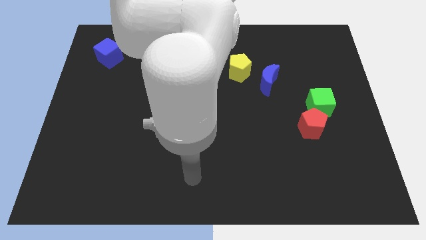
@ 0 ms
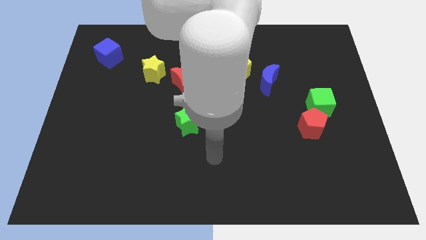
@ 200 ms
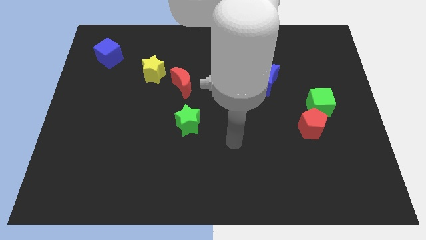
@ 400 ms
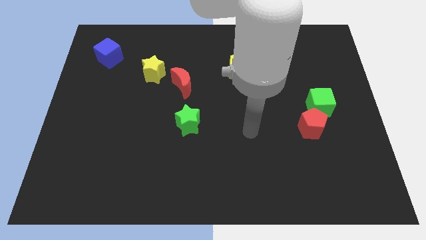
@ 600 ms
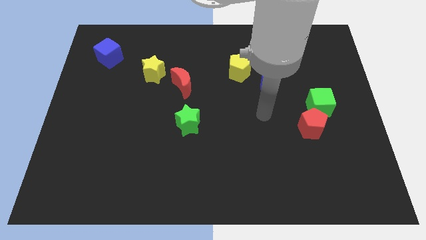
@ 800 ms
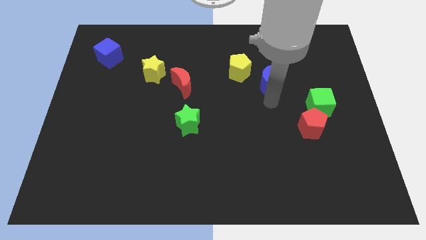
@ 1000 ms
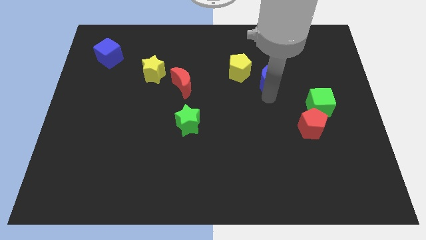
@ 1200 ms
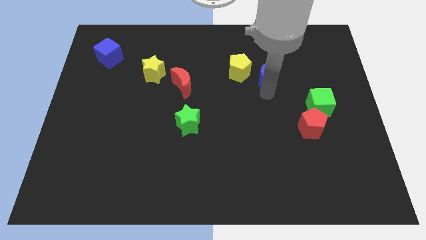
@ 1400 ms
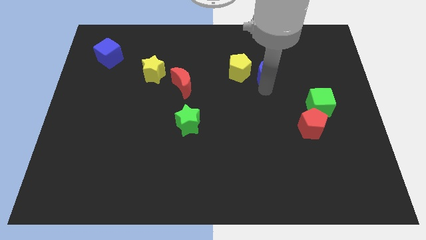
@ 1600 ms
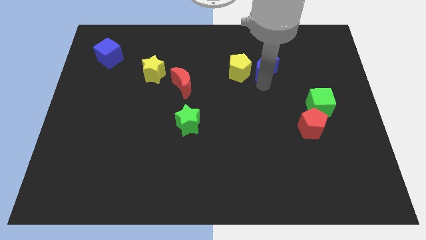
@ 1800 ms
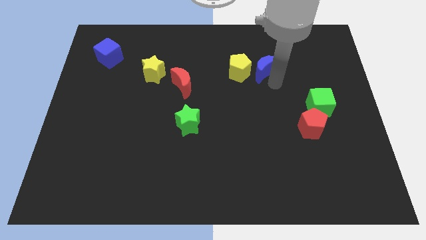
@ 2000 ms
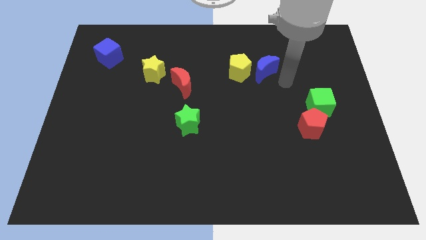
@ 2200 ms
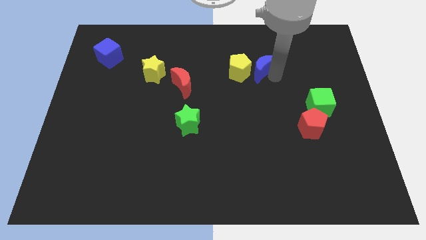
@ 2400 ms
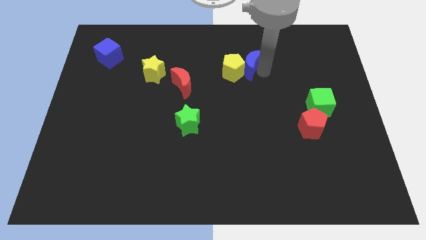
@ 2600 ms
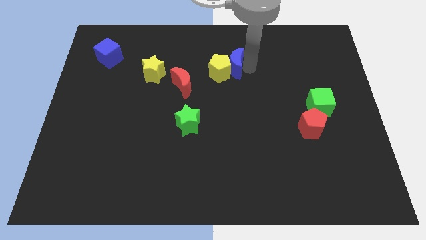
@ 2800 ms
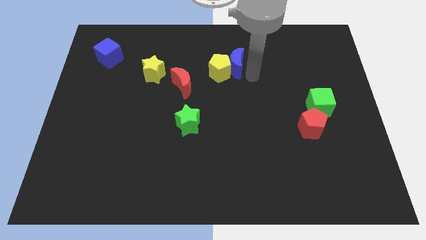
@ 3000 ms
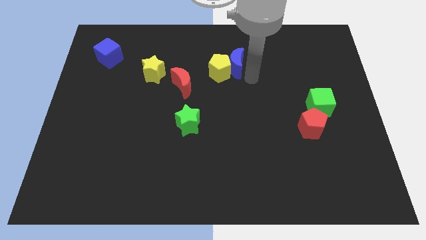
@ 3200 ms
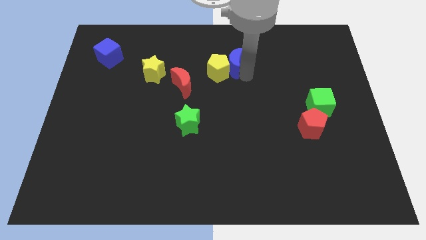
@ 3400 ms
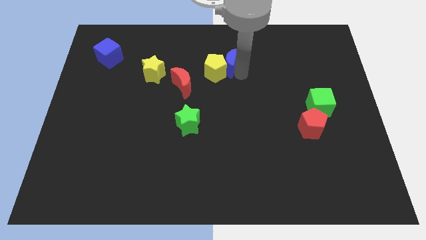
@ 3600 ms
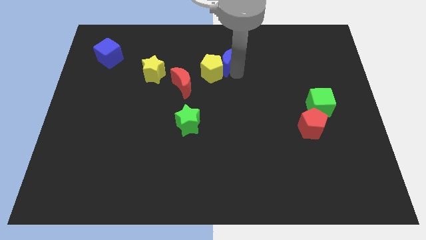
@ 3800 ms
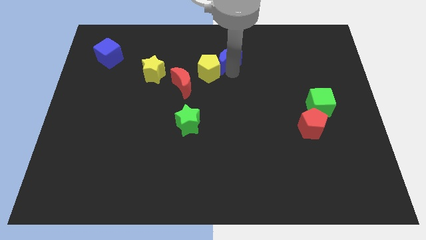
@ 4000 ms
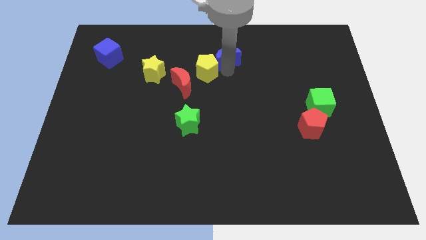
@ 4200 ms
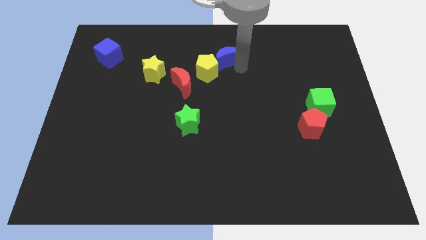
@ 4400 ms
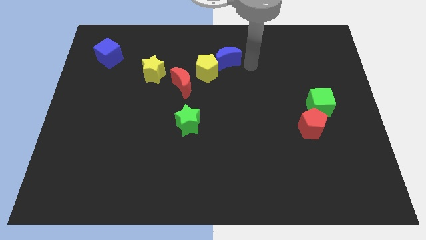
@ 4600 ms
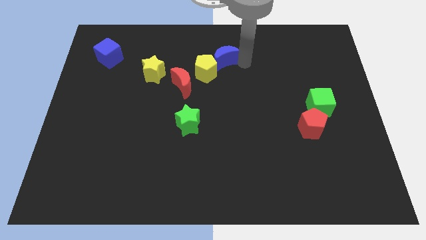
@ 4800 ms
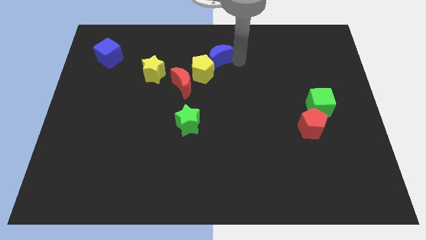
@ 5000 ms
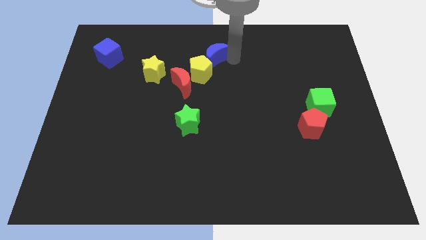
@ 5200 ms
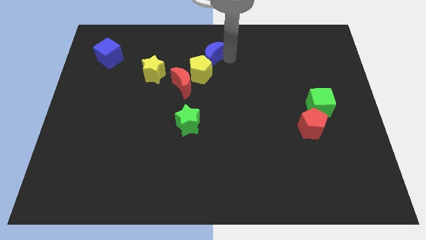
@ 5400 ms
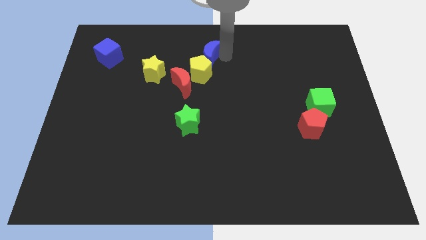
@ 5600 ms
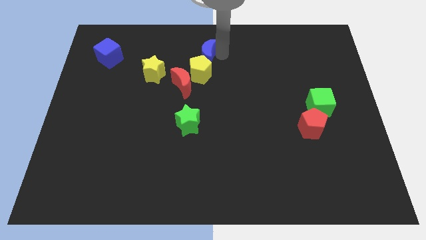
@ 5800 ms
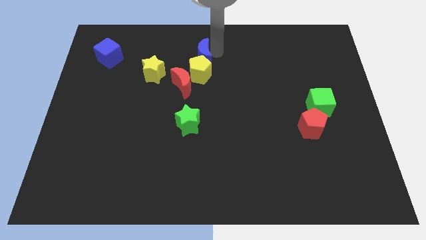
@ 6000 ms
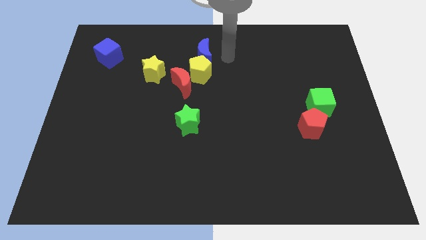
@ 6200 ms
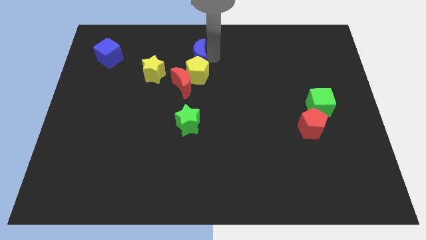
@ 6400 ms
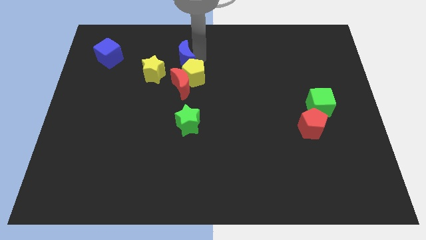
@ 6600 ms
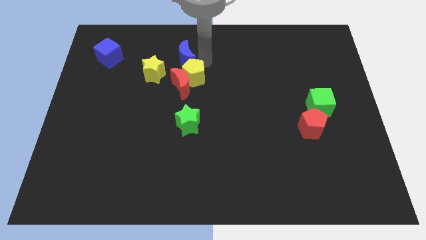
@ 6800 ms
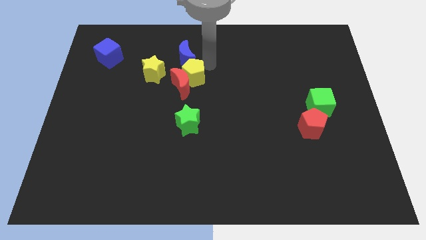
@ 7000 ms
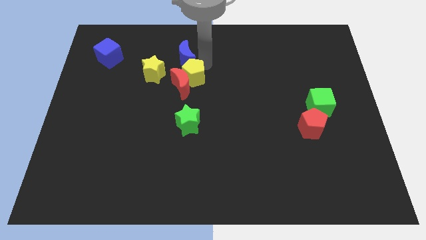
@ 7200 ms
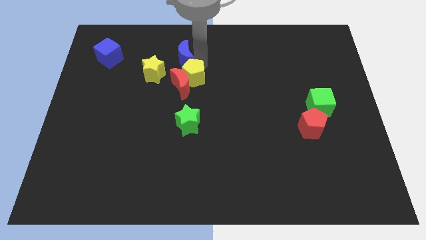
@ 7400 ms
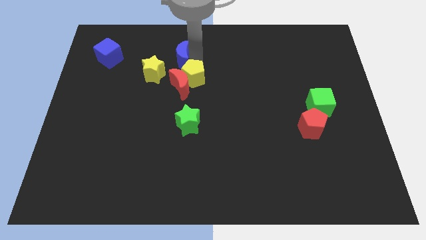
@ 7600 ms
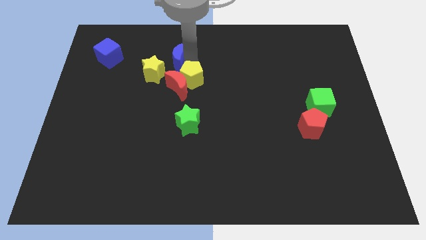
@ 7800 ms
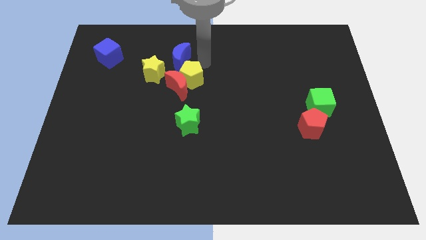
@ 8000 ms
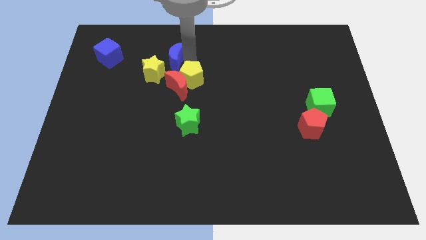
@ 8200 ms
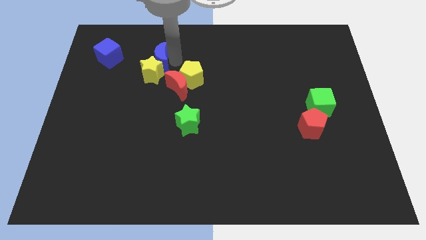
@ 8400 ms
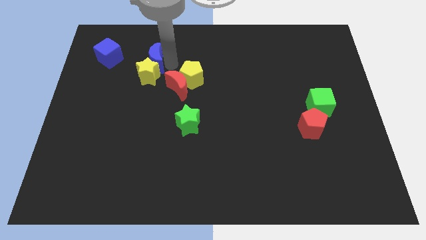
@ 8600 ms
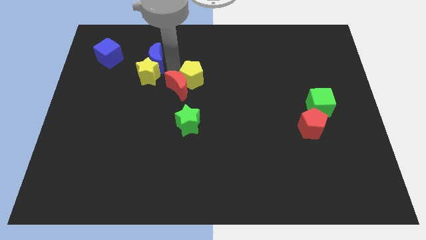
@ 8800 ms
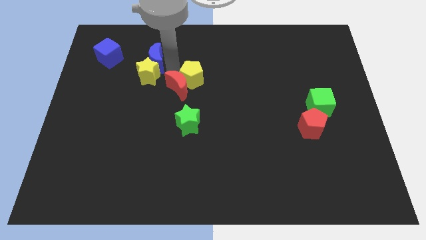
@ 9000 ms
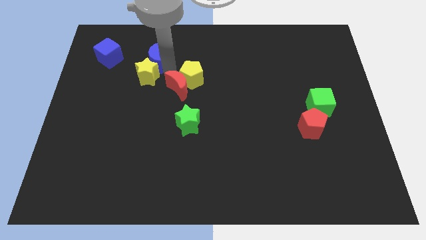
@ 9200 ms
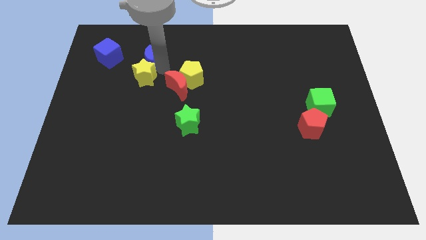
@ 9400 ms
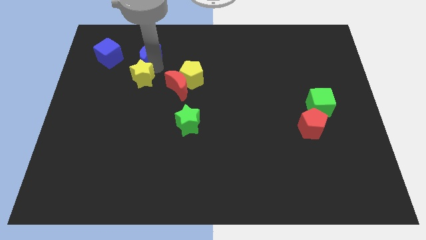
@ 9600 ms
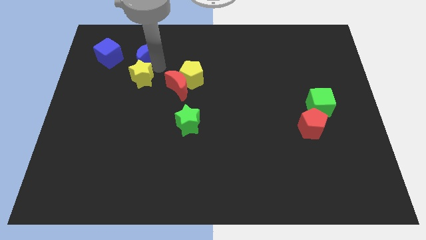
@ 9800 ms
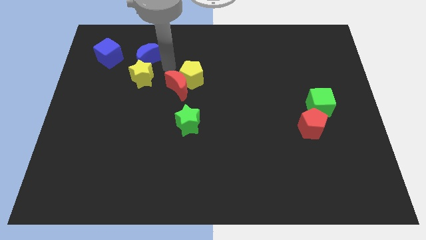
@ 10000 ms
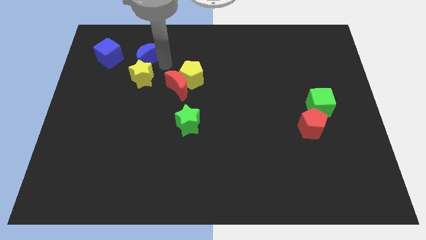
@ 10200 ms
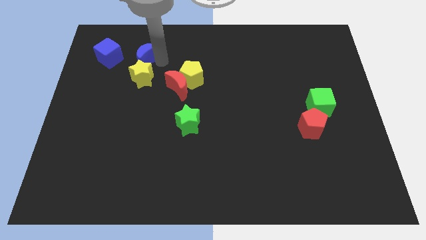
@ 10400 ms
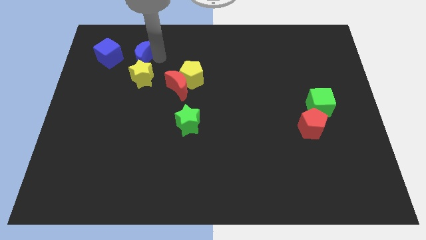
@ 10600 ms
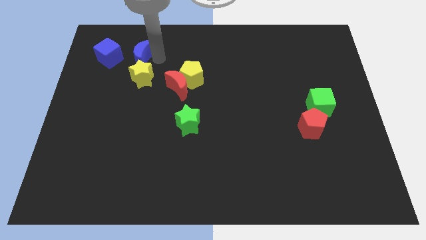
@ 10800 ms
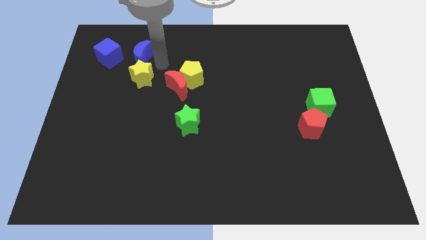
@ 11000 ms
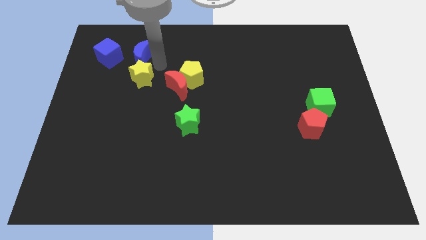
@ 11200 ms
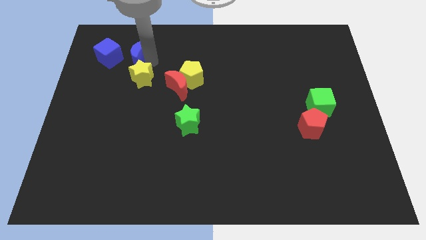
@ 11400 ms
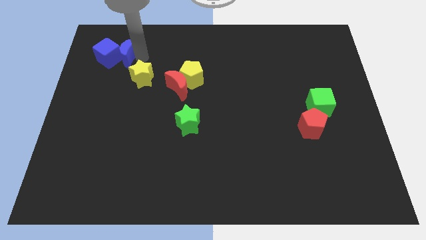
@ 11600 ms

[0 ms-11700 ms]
put the blue moon next to the blue cube

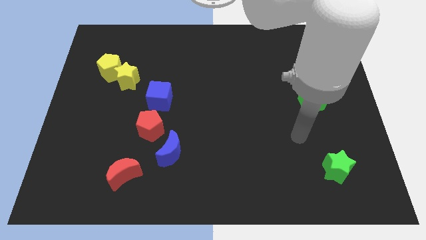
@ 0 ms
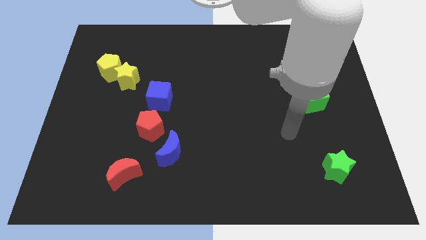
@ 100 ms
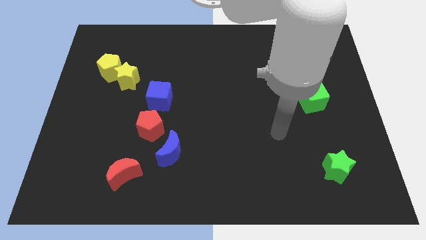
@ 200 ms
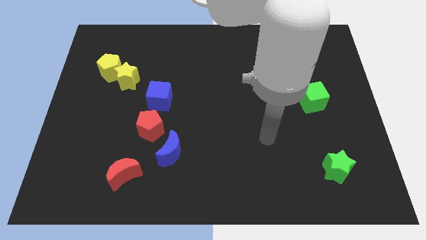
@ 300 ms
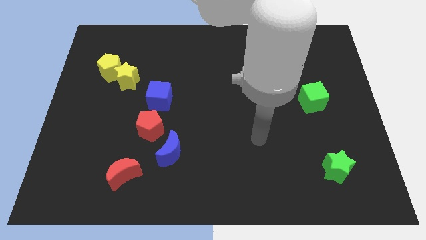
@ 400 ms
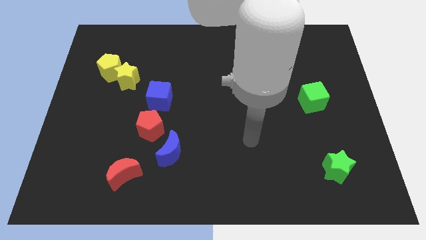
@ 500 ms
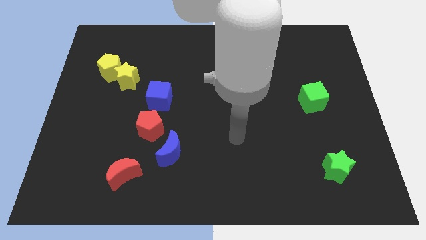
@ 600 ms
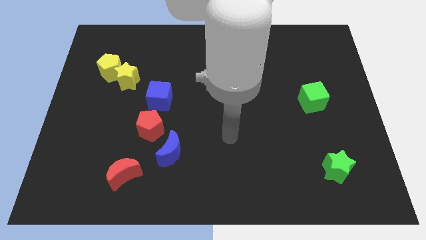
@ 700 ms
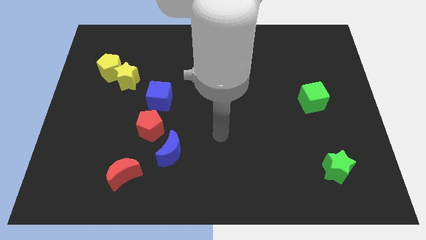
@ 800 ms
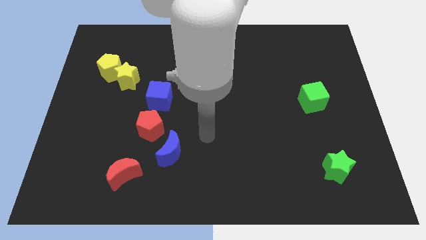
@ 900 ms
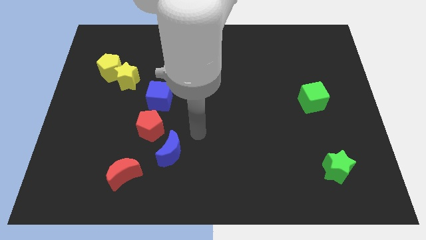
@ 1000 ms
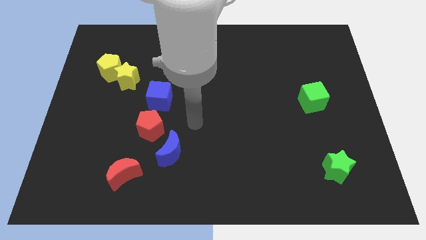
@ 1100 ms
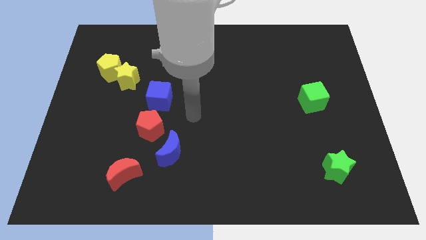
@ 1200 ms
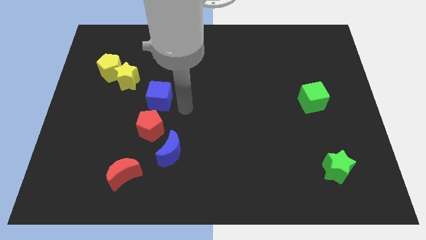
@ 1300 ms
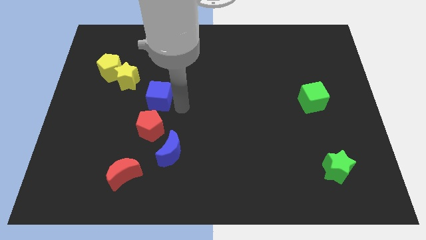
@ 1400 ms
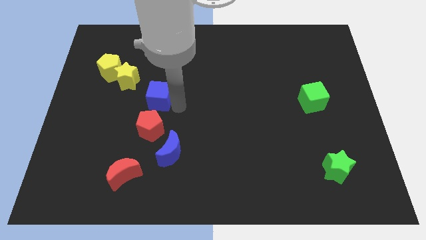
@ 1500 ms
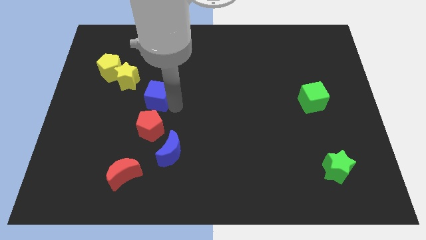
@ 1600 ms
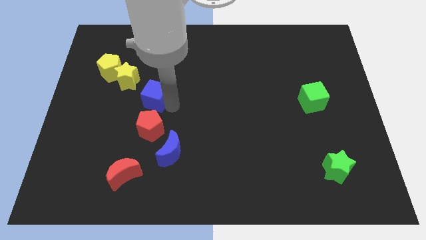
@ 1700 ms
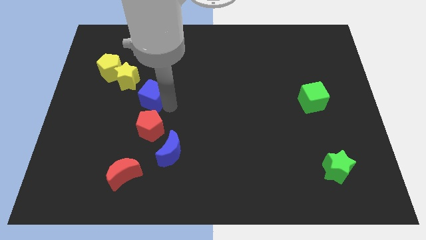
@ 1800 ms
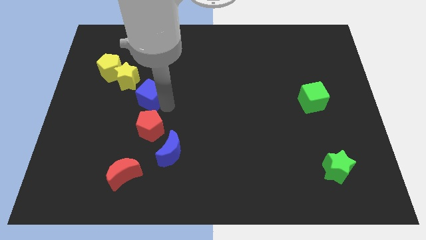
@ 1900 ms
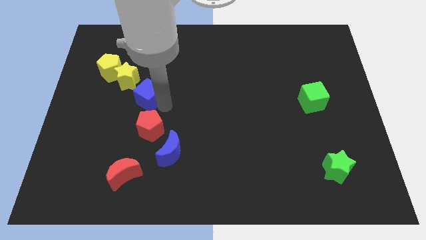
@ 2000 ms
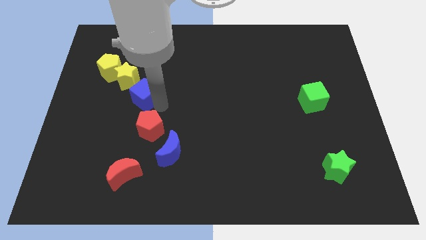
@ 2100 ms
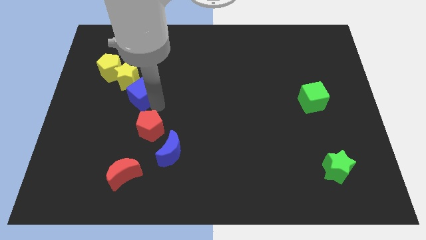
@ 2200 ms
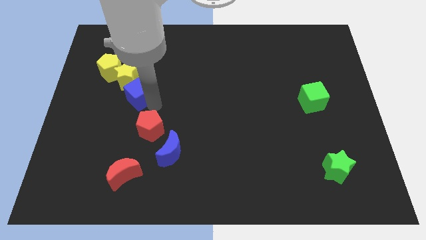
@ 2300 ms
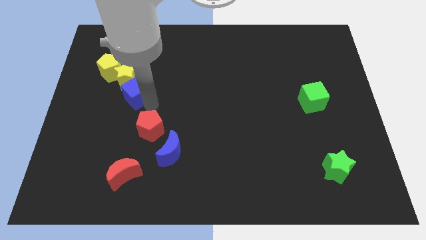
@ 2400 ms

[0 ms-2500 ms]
push the blue cube next to the yellow star

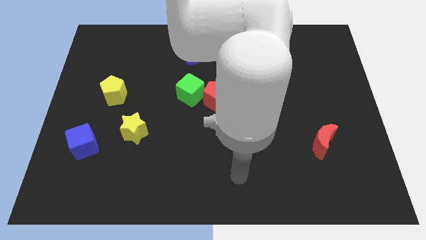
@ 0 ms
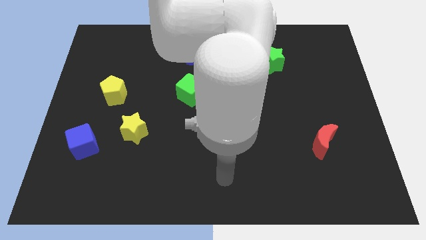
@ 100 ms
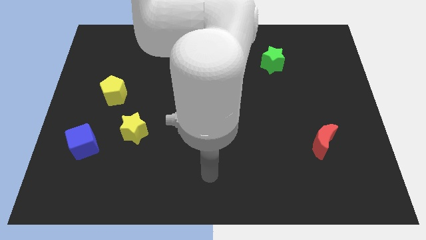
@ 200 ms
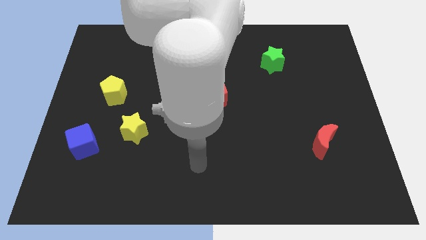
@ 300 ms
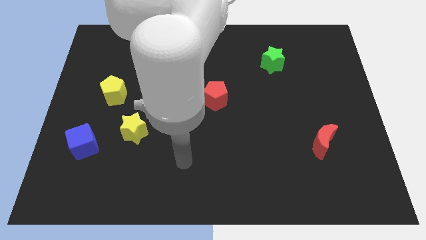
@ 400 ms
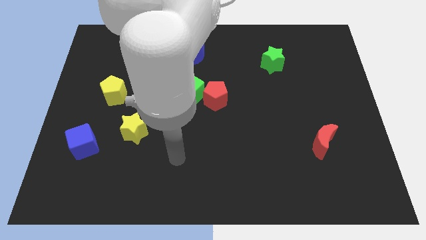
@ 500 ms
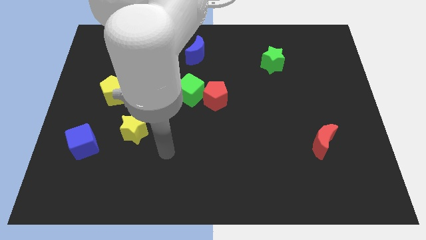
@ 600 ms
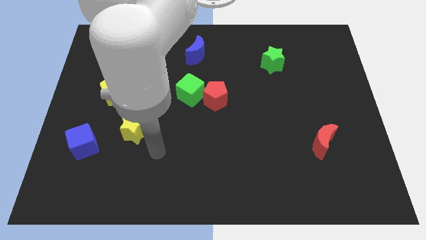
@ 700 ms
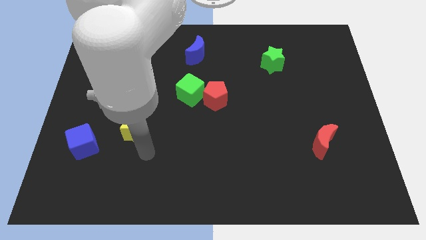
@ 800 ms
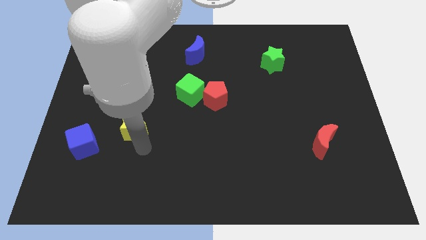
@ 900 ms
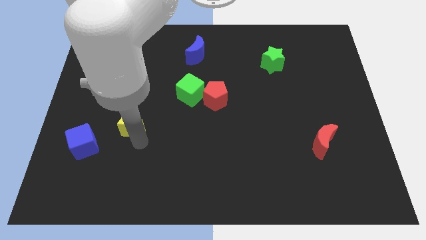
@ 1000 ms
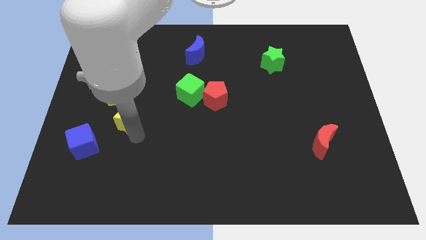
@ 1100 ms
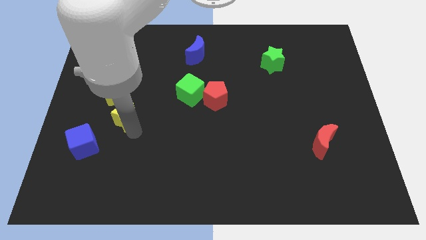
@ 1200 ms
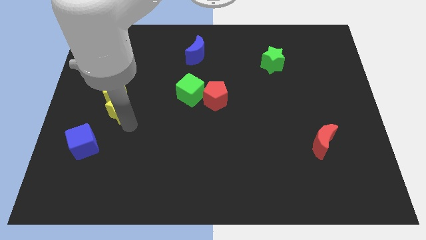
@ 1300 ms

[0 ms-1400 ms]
put the yellow star towards the yellow pentagon
